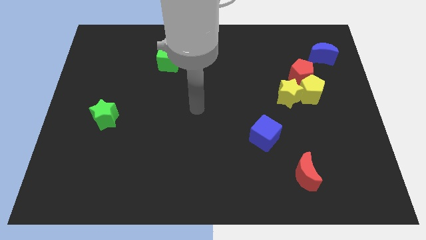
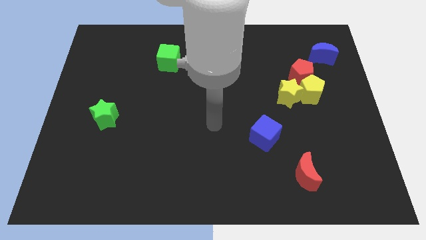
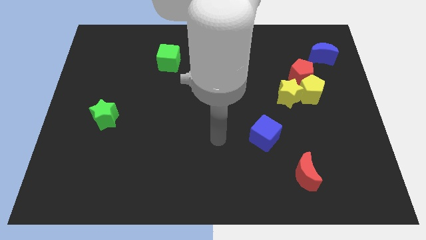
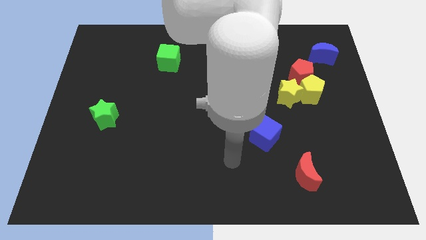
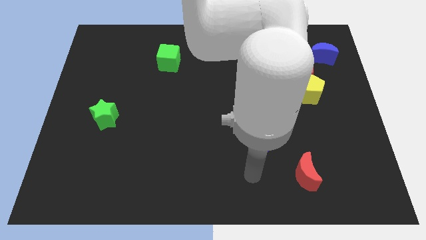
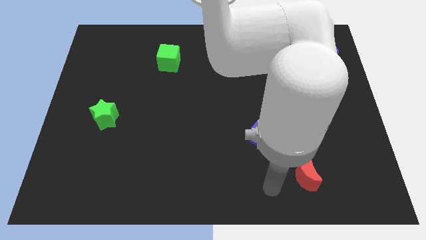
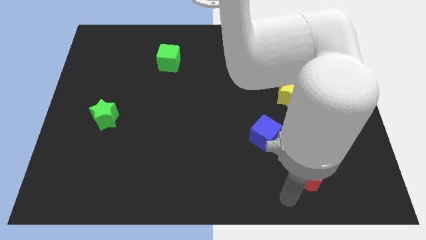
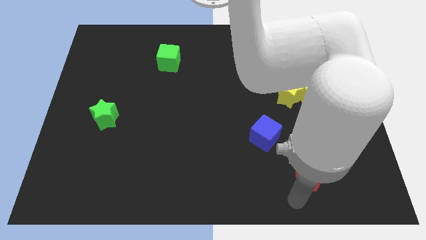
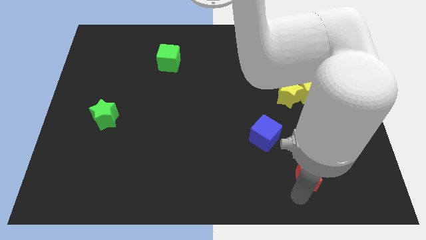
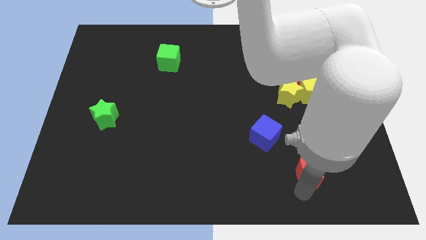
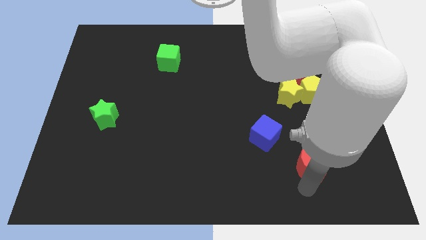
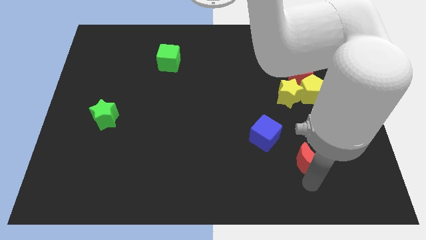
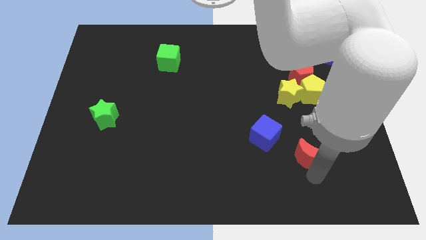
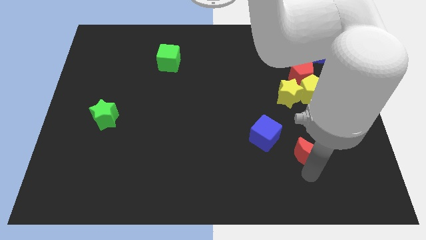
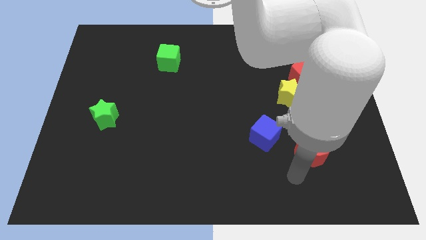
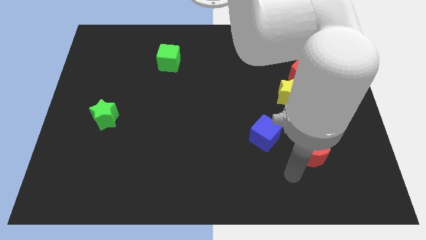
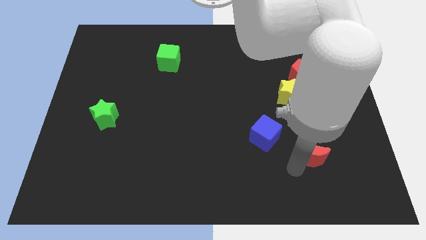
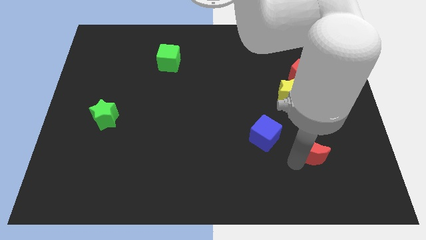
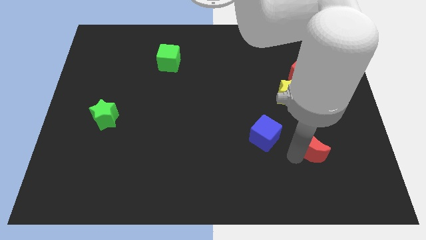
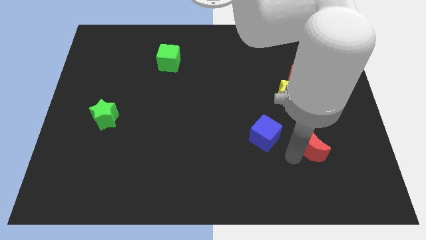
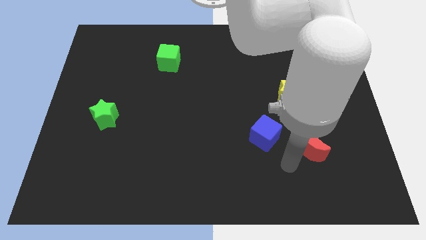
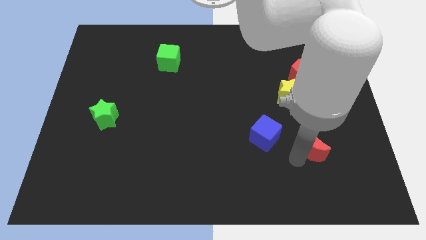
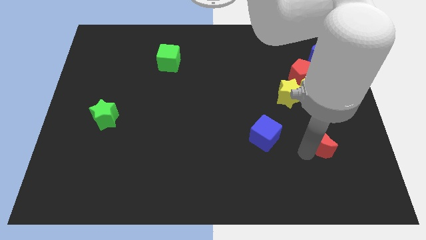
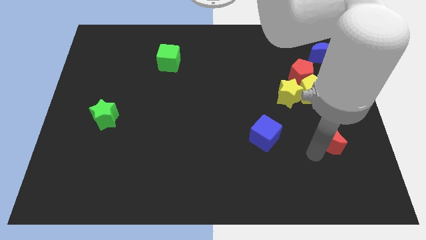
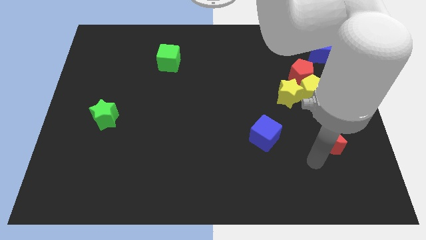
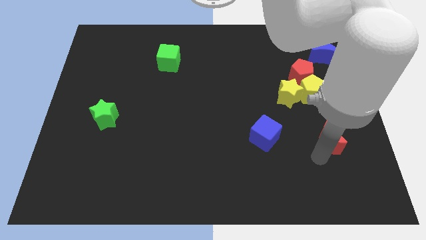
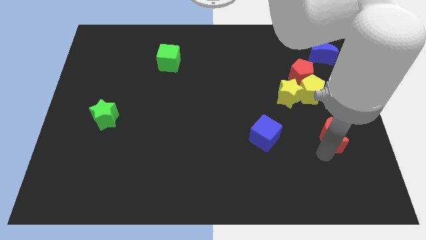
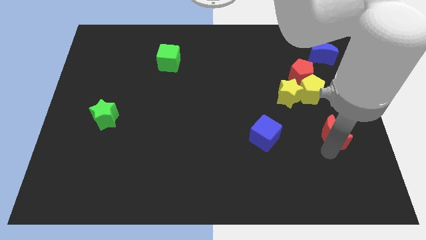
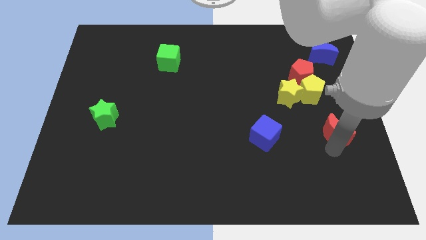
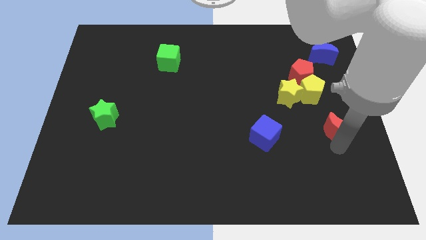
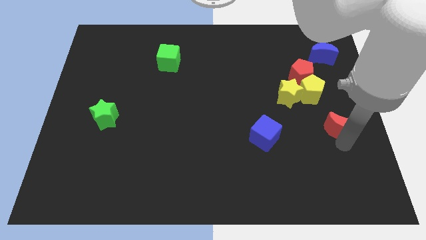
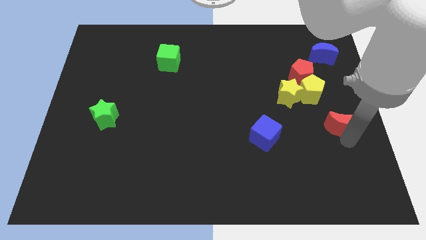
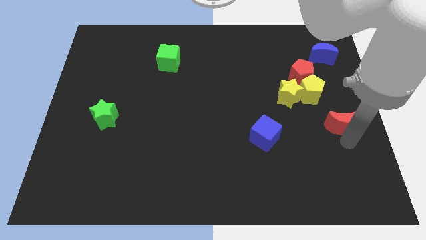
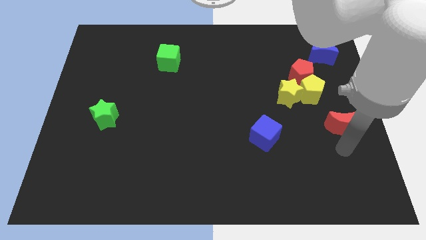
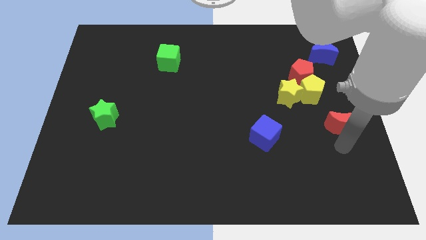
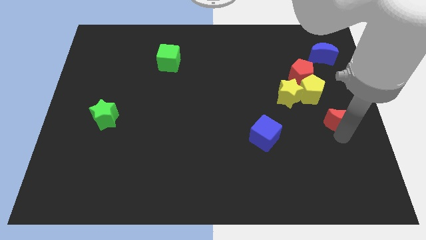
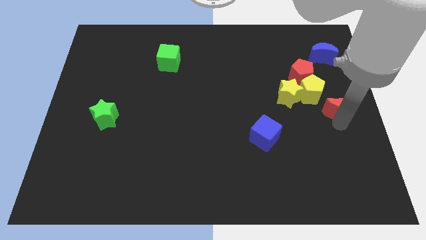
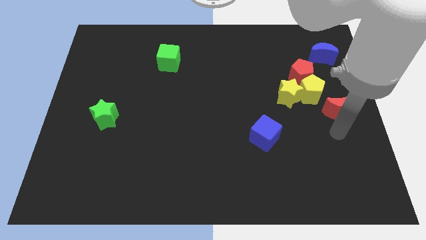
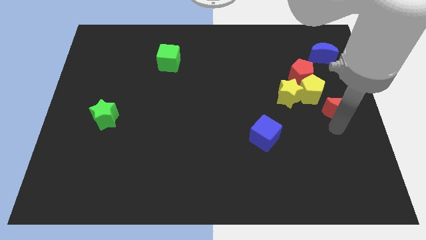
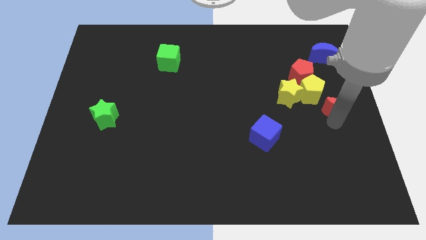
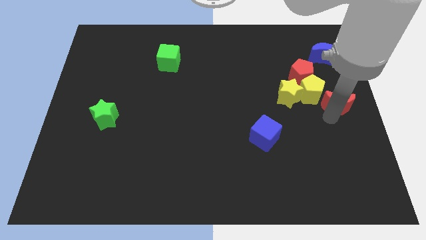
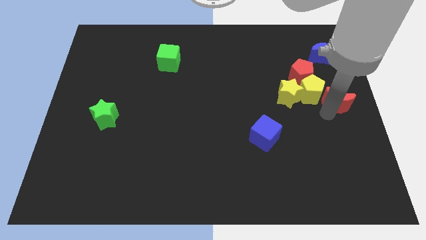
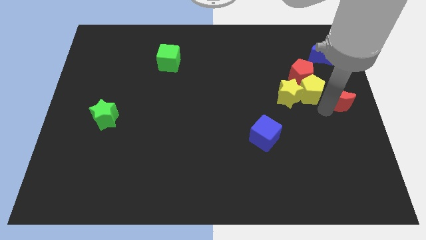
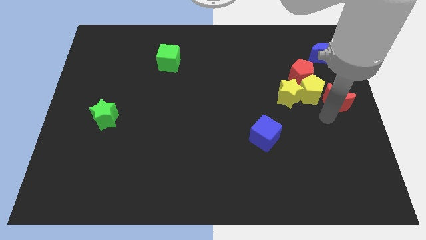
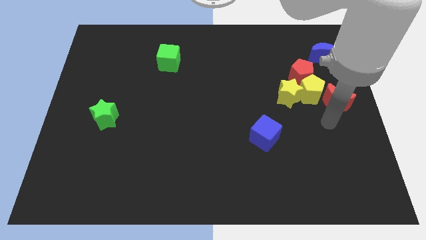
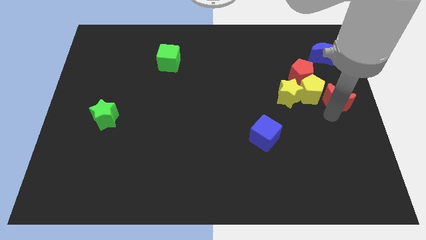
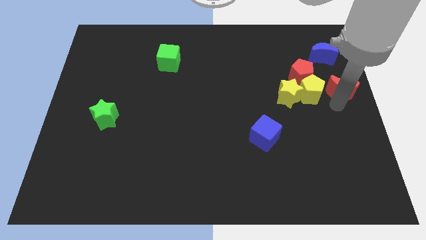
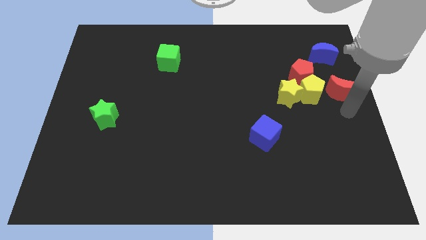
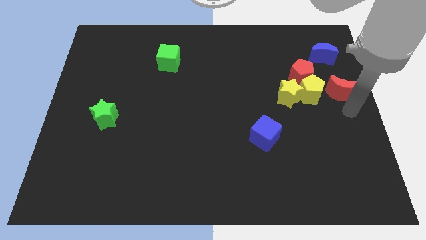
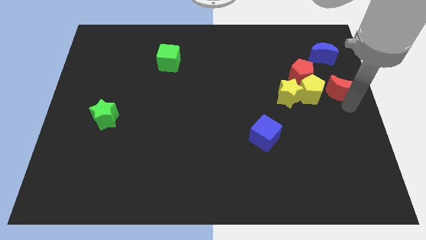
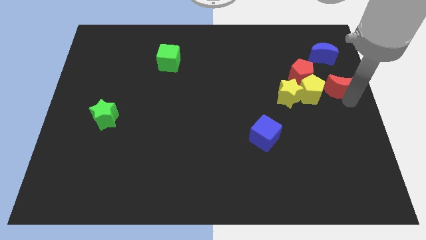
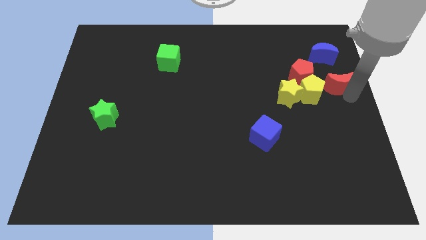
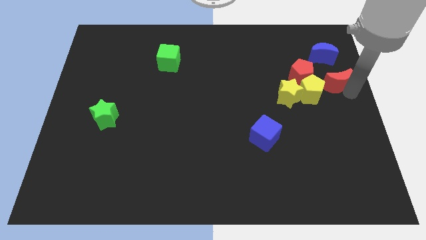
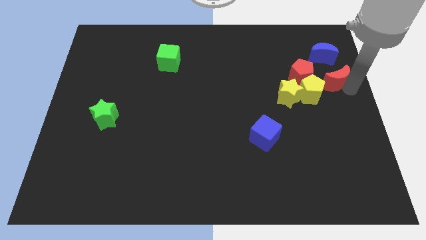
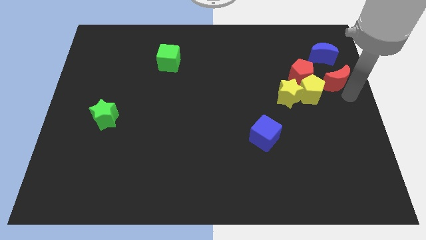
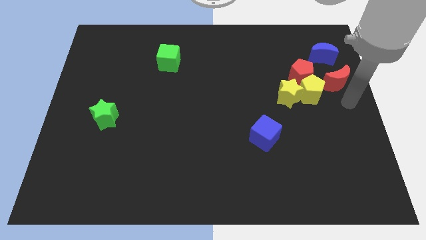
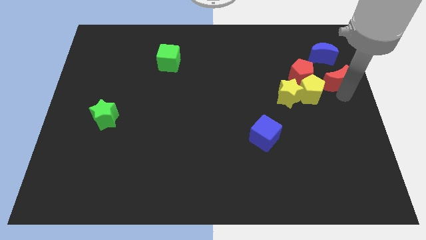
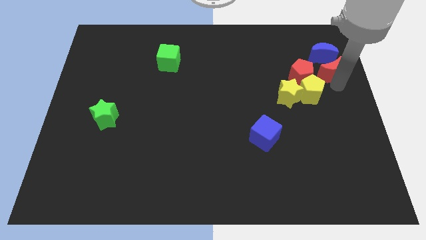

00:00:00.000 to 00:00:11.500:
push the red moon close to the blue moon

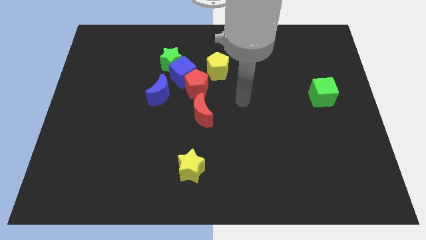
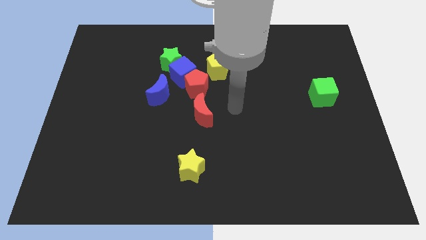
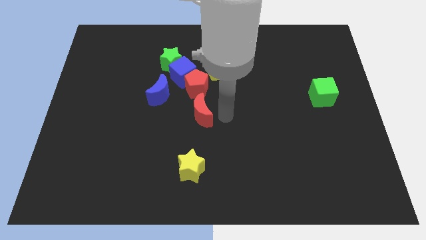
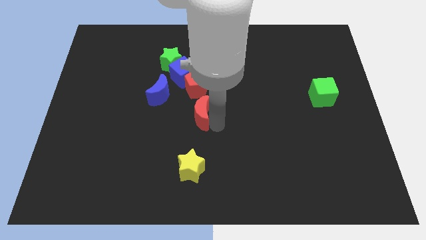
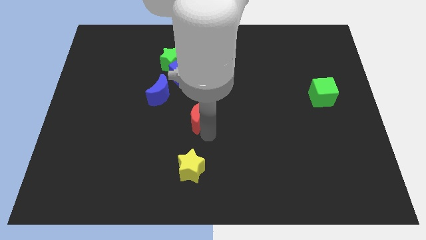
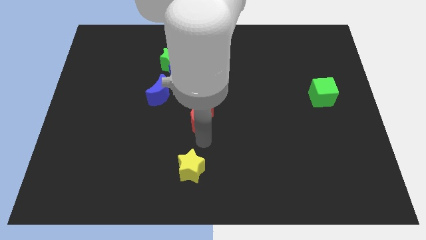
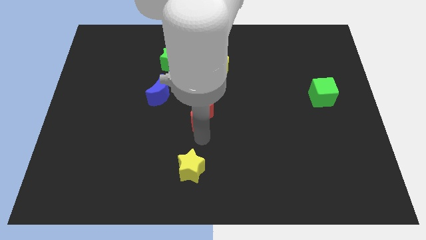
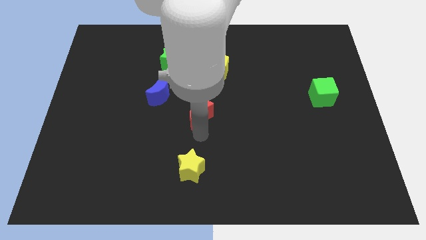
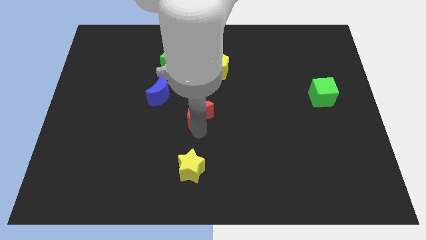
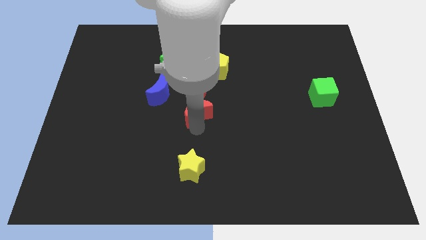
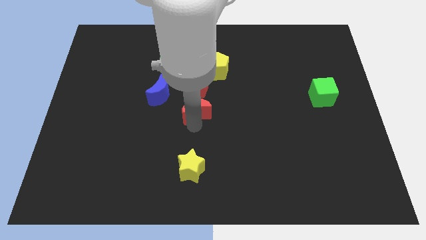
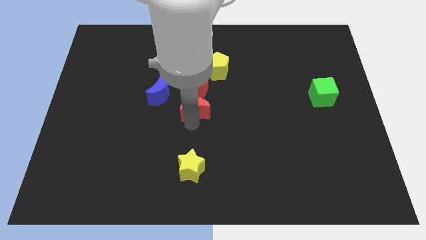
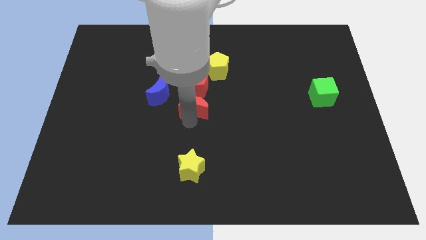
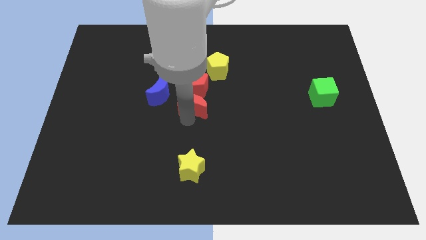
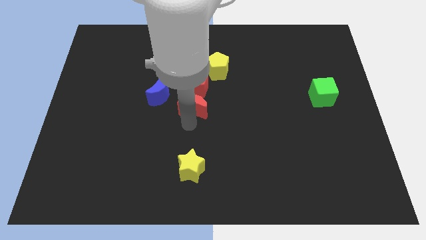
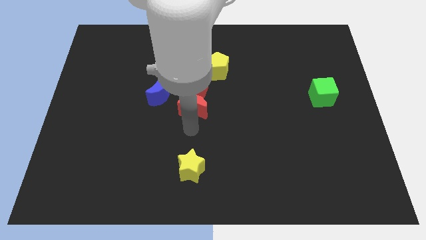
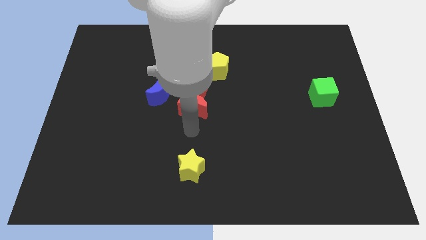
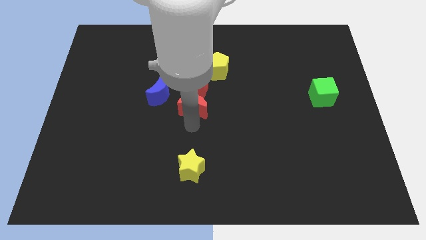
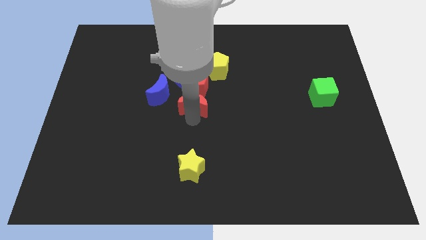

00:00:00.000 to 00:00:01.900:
slide the red moon close to the red pentagon
